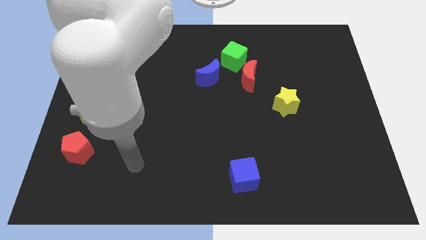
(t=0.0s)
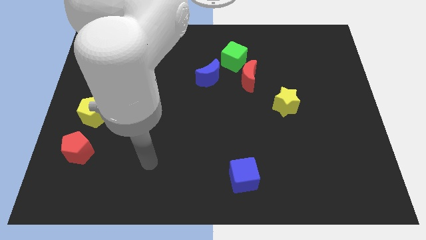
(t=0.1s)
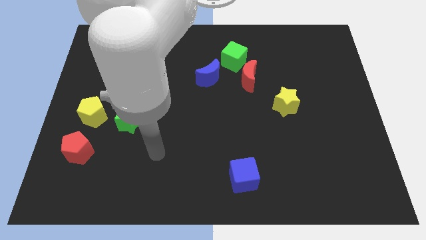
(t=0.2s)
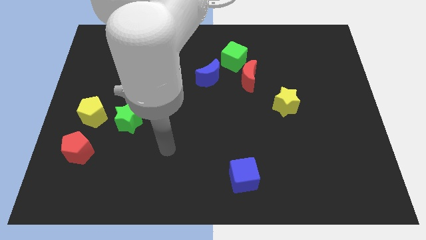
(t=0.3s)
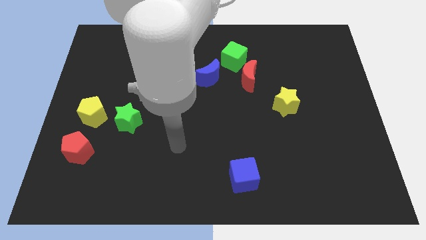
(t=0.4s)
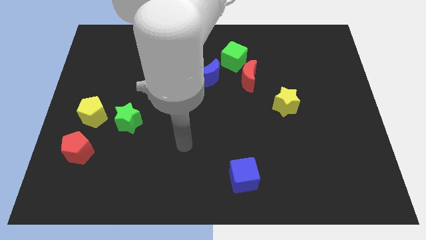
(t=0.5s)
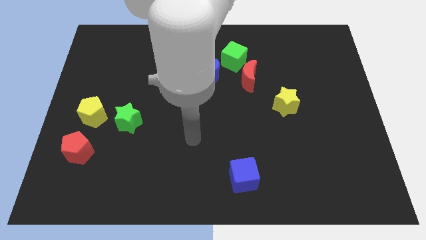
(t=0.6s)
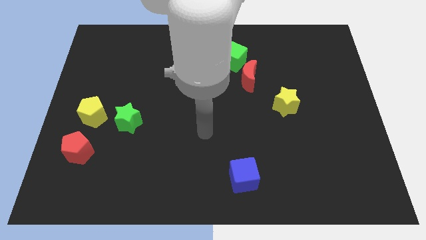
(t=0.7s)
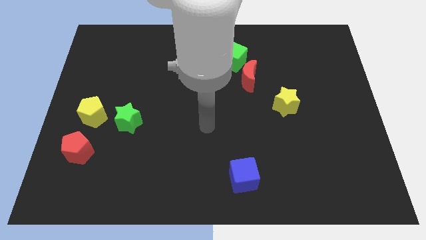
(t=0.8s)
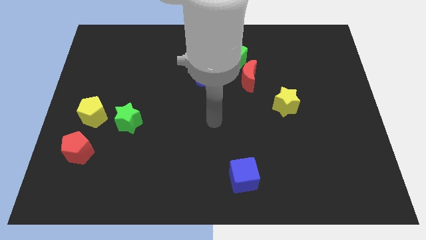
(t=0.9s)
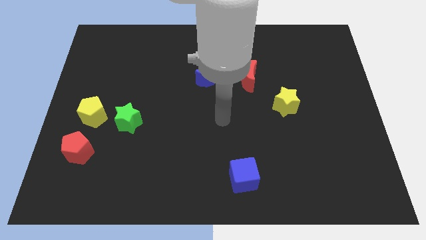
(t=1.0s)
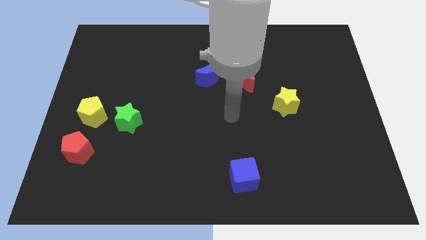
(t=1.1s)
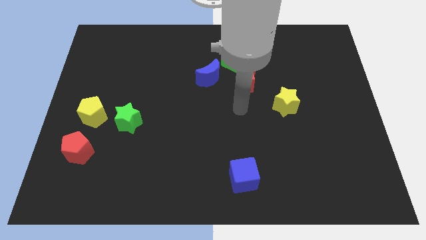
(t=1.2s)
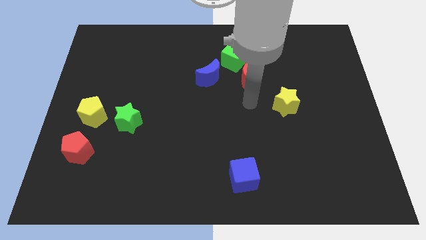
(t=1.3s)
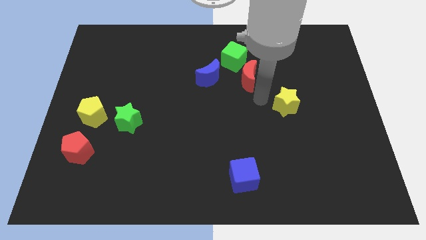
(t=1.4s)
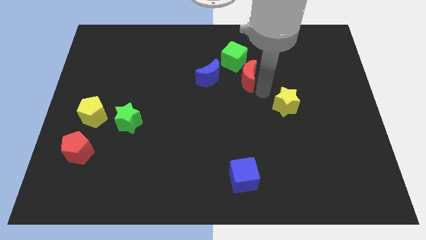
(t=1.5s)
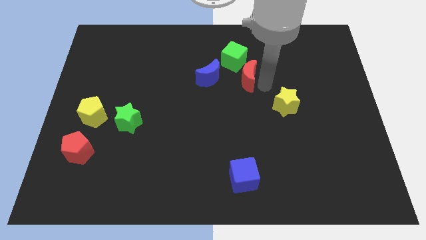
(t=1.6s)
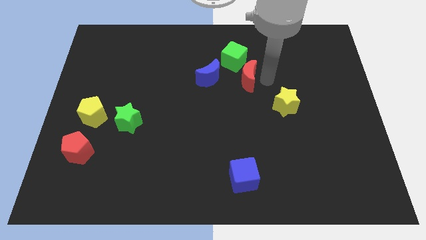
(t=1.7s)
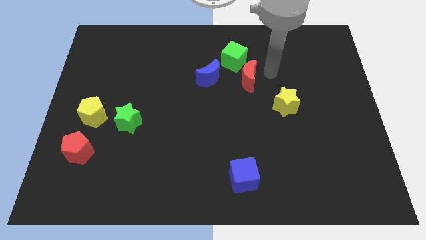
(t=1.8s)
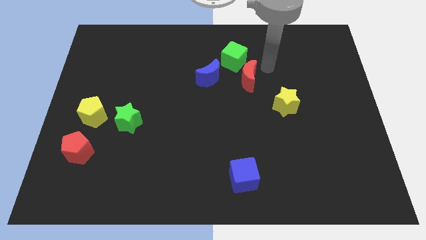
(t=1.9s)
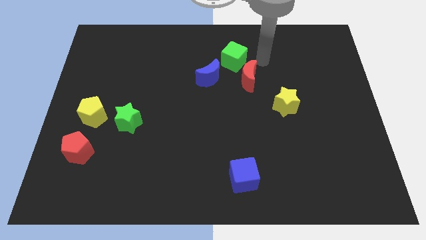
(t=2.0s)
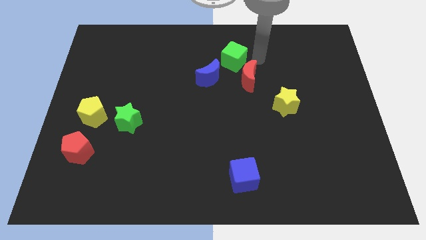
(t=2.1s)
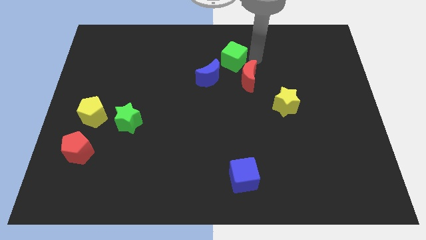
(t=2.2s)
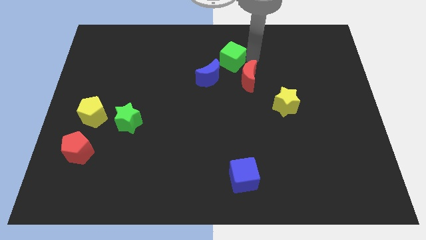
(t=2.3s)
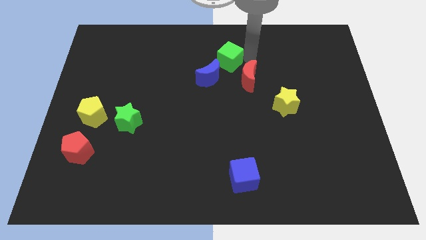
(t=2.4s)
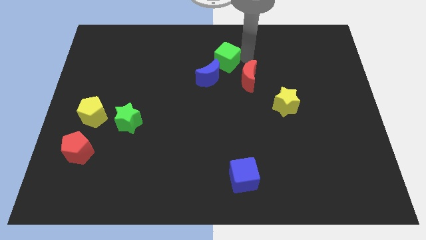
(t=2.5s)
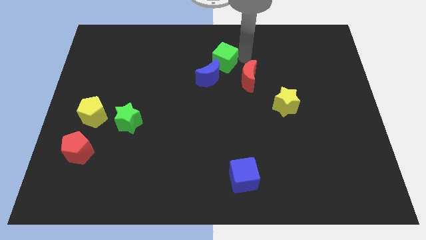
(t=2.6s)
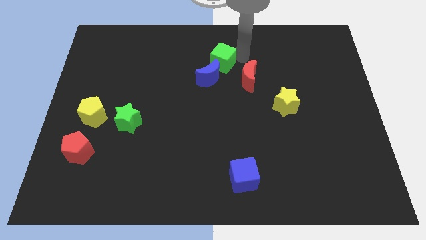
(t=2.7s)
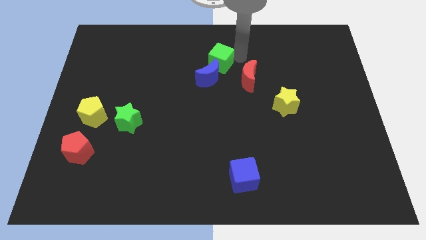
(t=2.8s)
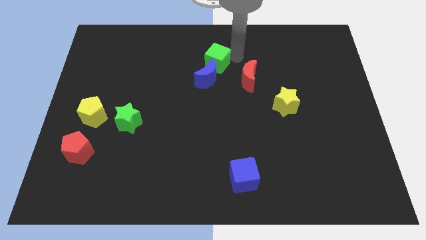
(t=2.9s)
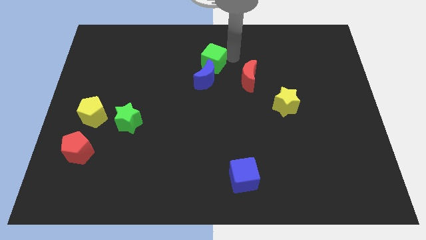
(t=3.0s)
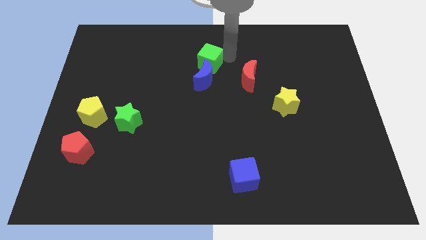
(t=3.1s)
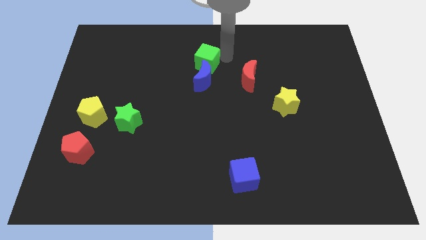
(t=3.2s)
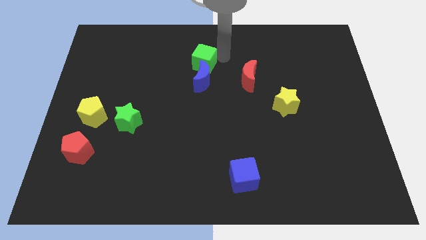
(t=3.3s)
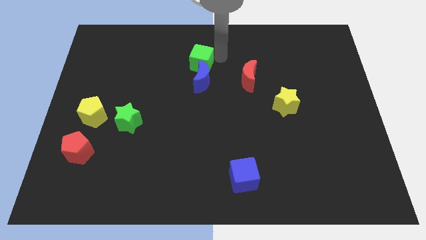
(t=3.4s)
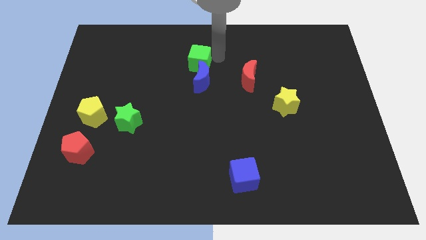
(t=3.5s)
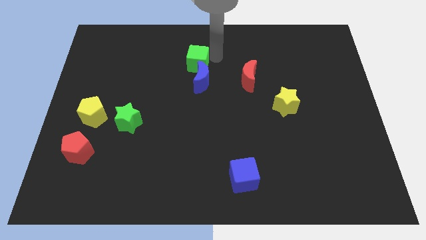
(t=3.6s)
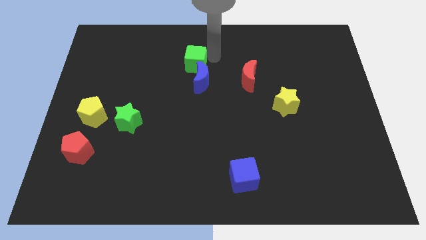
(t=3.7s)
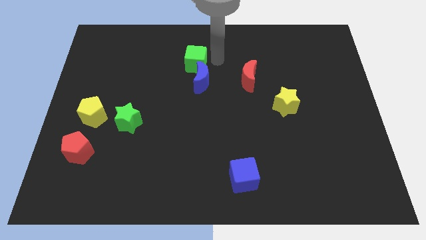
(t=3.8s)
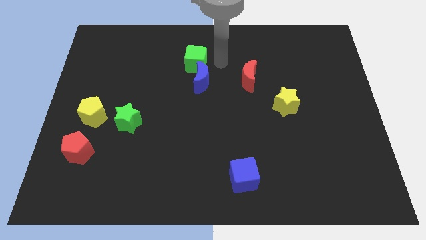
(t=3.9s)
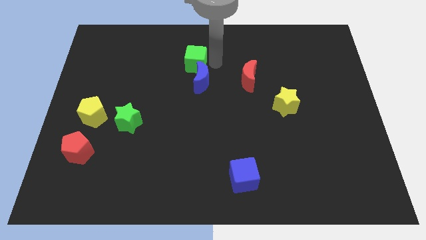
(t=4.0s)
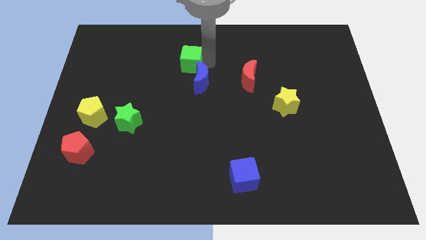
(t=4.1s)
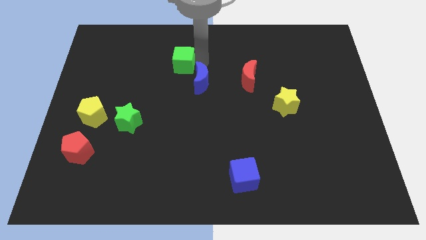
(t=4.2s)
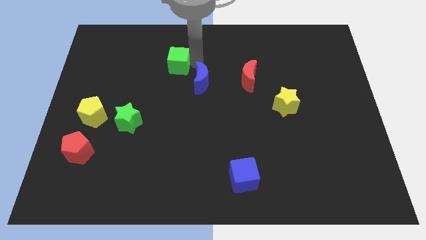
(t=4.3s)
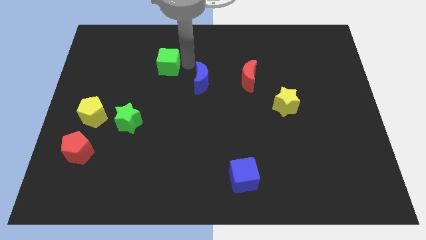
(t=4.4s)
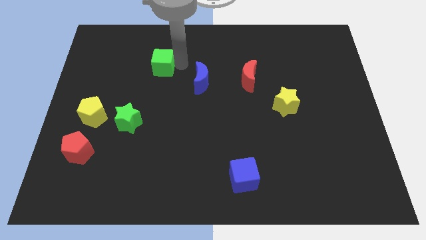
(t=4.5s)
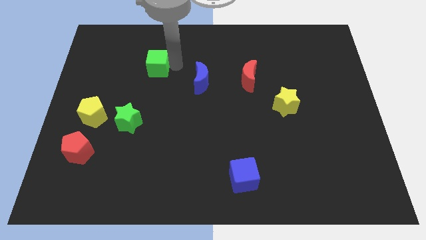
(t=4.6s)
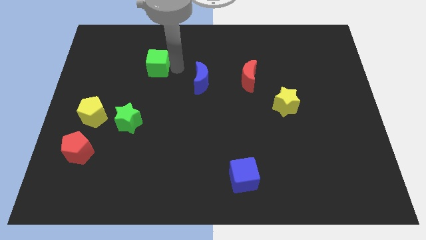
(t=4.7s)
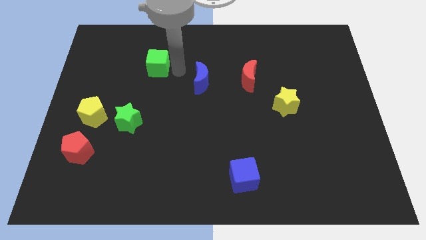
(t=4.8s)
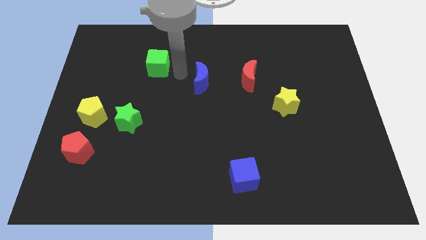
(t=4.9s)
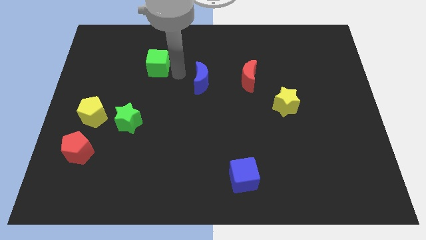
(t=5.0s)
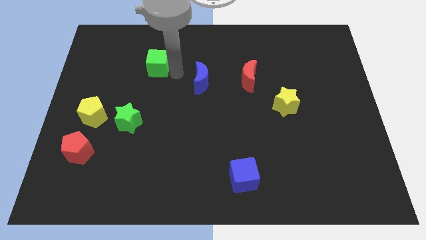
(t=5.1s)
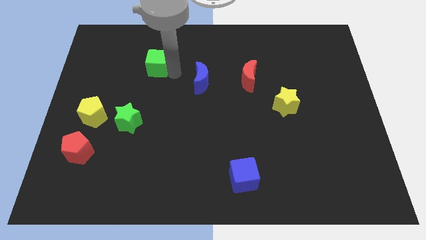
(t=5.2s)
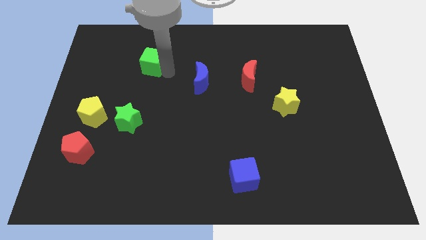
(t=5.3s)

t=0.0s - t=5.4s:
move the green cube to the left

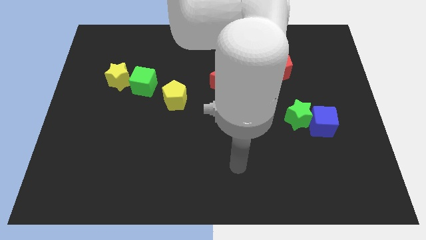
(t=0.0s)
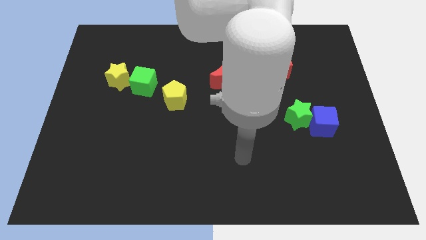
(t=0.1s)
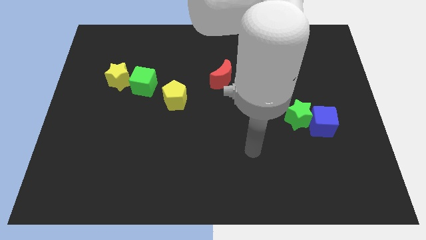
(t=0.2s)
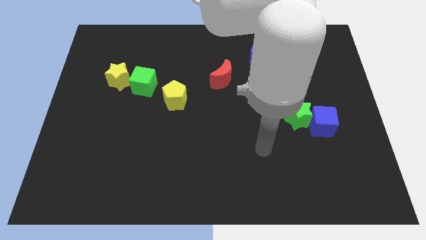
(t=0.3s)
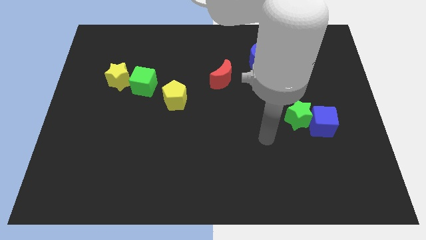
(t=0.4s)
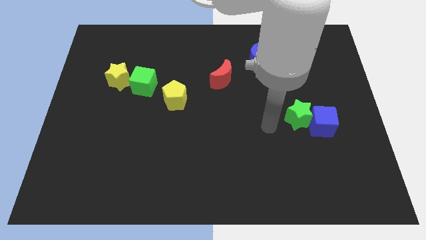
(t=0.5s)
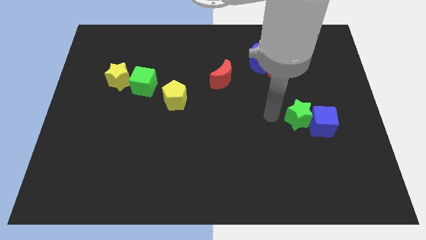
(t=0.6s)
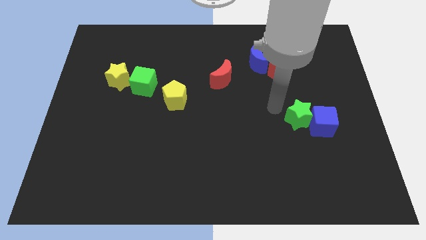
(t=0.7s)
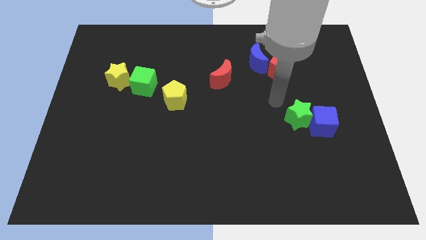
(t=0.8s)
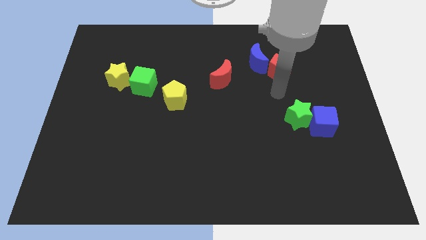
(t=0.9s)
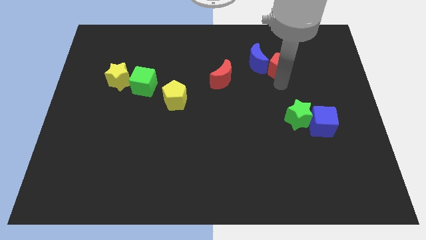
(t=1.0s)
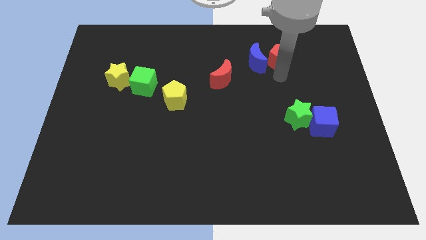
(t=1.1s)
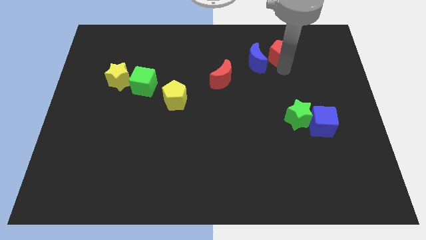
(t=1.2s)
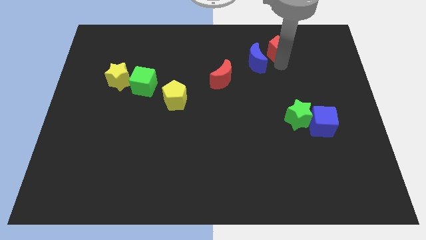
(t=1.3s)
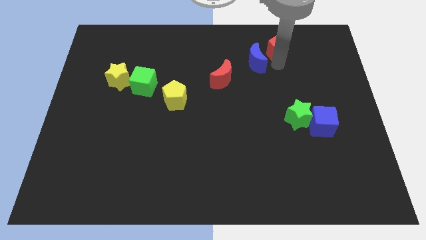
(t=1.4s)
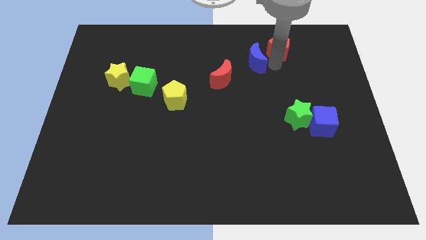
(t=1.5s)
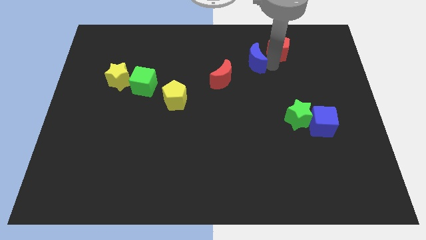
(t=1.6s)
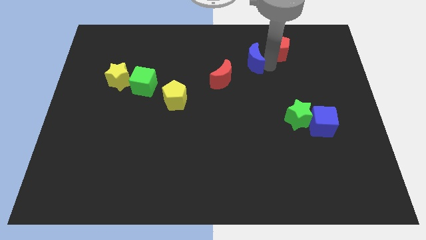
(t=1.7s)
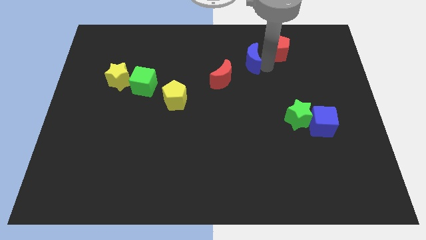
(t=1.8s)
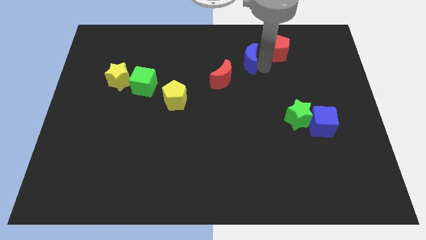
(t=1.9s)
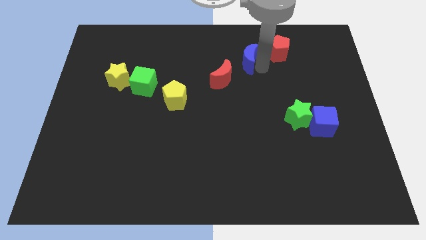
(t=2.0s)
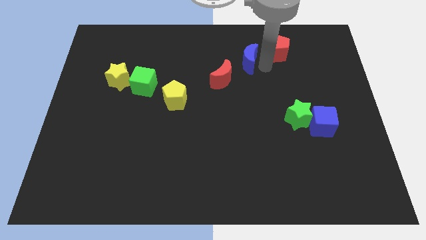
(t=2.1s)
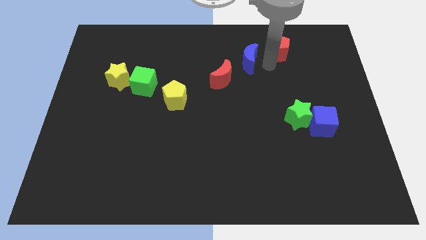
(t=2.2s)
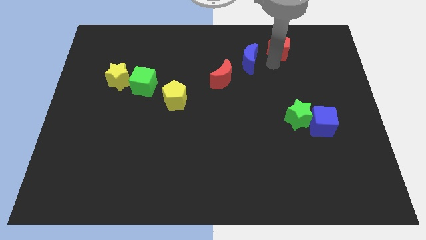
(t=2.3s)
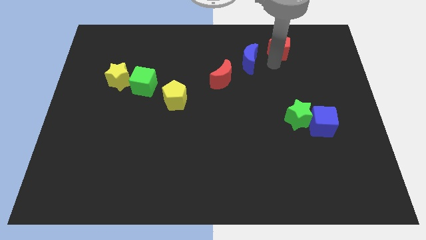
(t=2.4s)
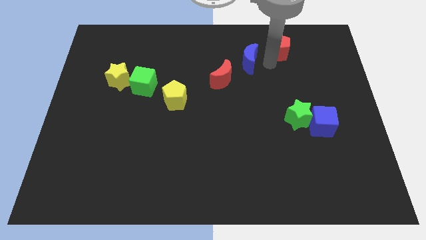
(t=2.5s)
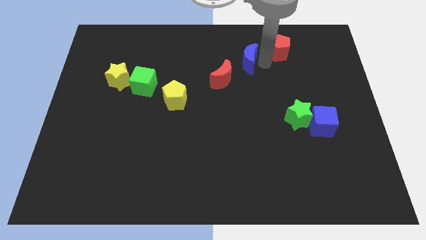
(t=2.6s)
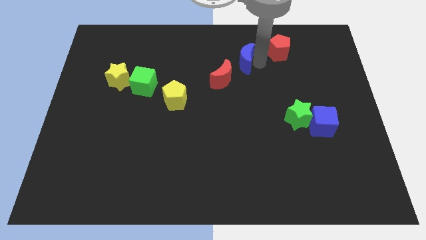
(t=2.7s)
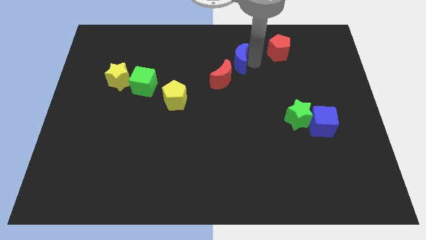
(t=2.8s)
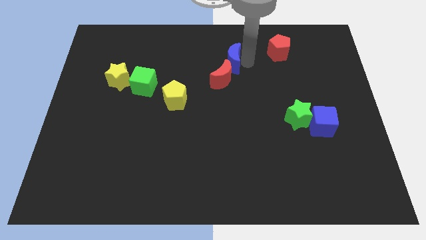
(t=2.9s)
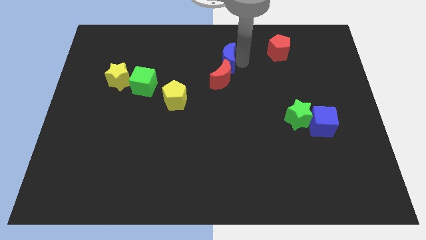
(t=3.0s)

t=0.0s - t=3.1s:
move the blue moon slightly to the left

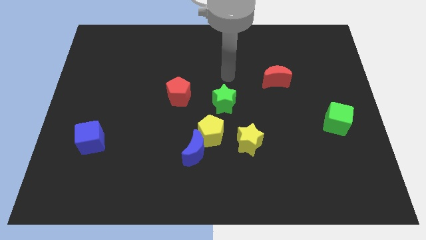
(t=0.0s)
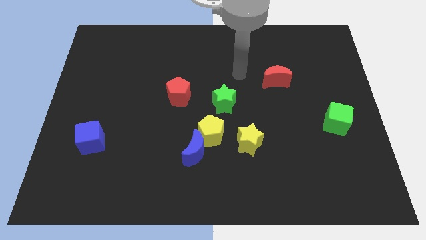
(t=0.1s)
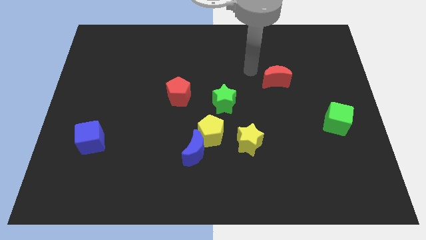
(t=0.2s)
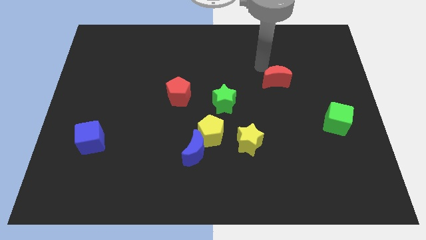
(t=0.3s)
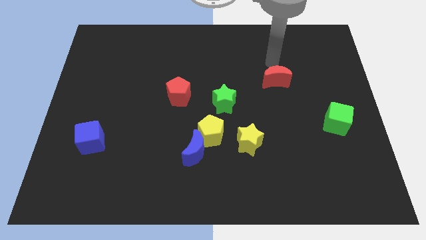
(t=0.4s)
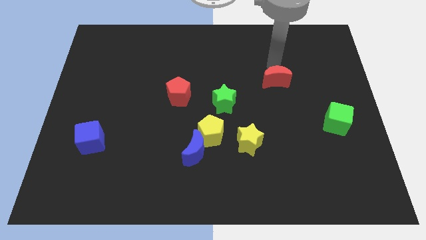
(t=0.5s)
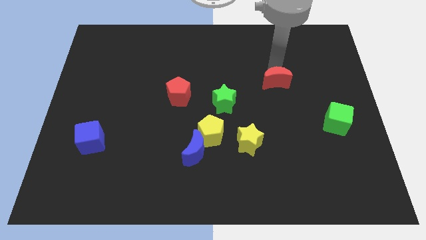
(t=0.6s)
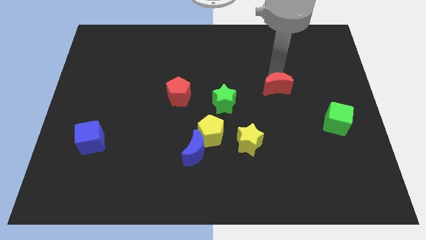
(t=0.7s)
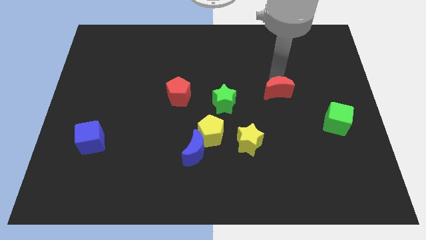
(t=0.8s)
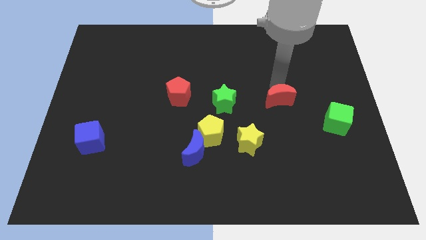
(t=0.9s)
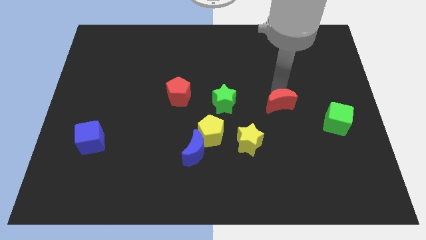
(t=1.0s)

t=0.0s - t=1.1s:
push the red moon down a little bit
